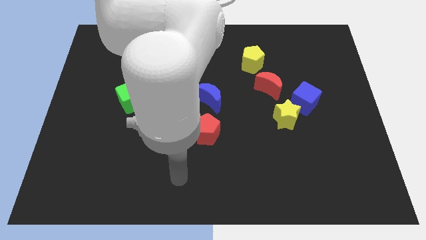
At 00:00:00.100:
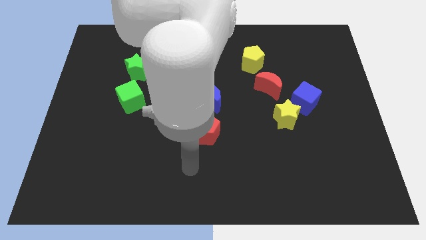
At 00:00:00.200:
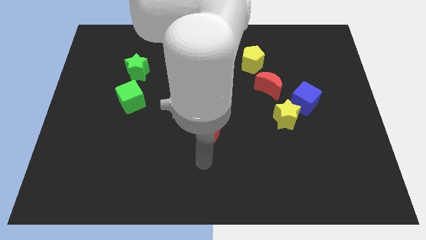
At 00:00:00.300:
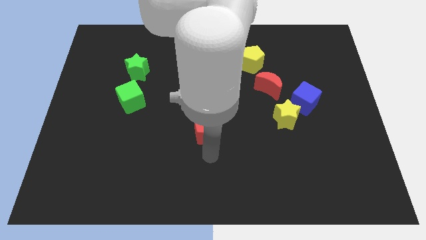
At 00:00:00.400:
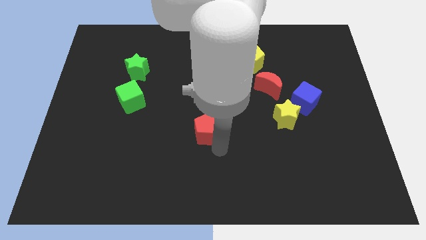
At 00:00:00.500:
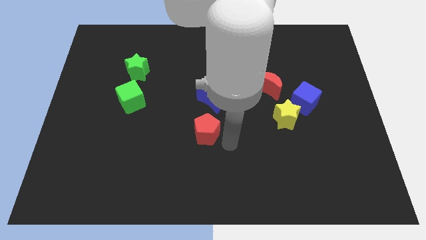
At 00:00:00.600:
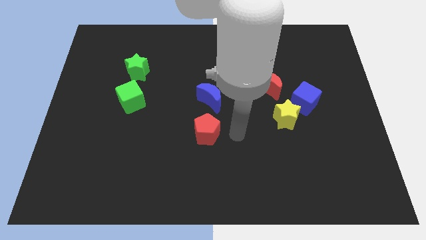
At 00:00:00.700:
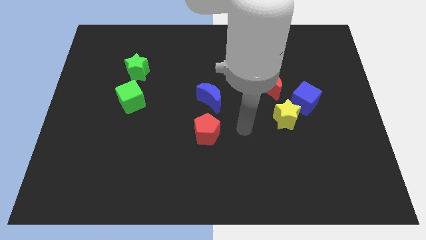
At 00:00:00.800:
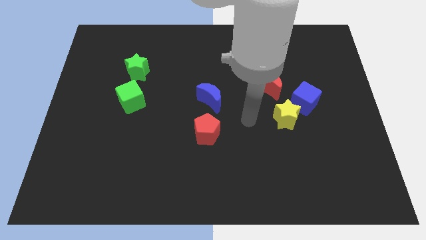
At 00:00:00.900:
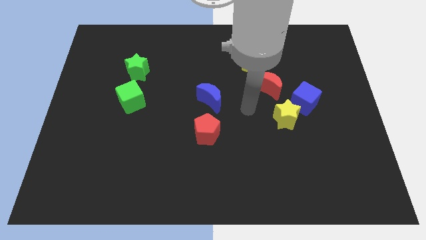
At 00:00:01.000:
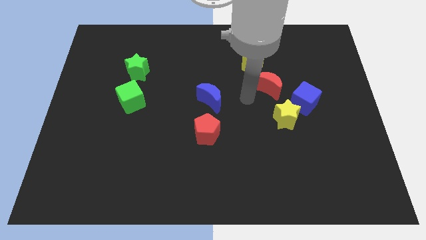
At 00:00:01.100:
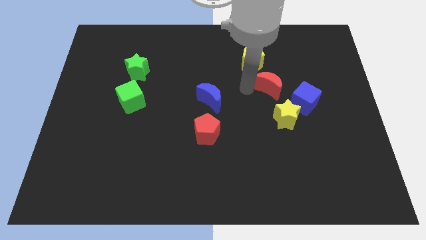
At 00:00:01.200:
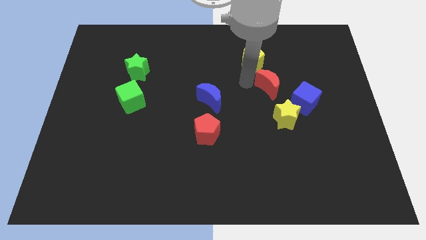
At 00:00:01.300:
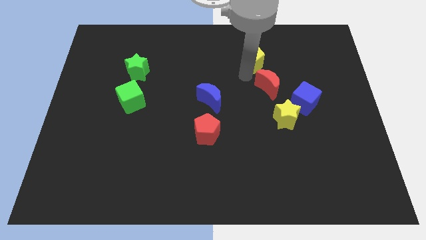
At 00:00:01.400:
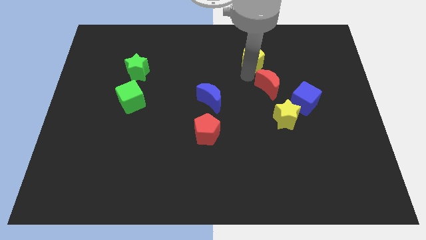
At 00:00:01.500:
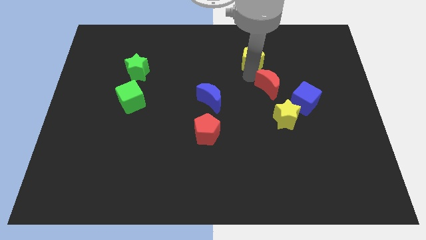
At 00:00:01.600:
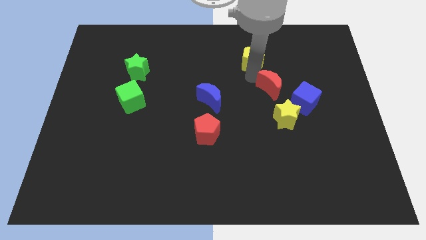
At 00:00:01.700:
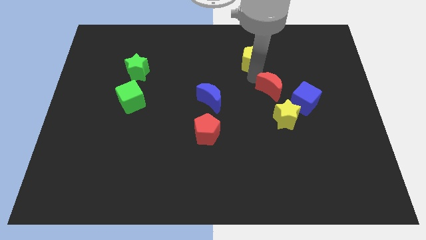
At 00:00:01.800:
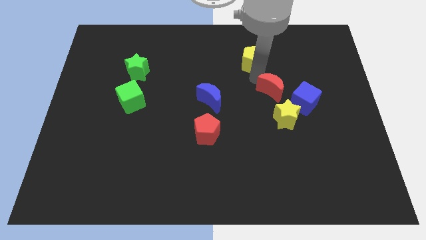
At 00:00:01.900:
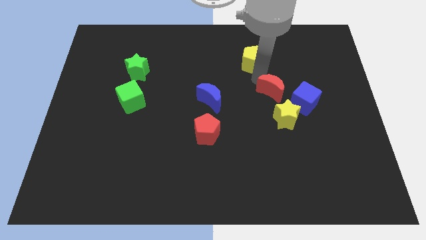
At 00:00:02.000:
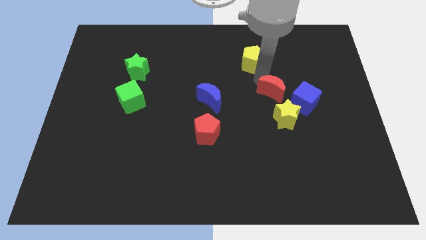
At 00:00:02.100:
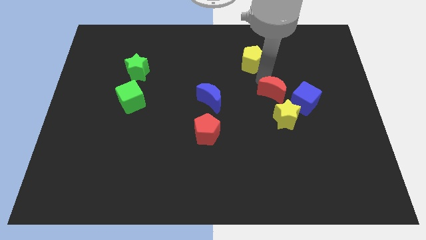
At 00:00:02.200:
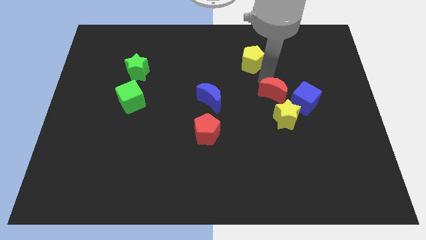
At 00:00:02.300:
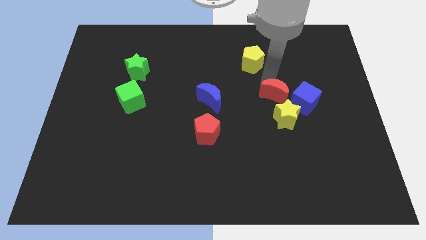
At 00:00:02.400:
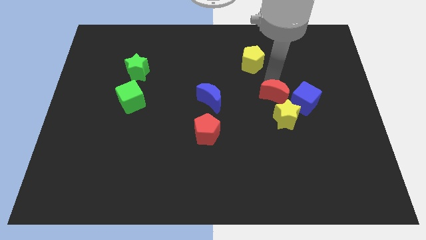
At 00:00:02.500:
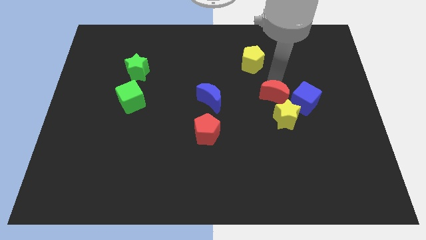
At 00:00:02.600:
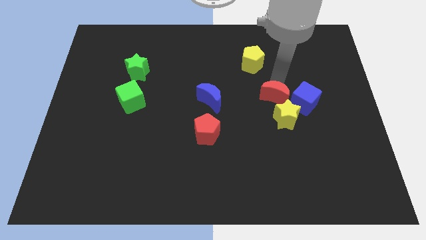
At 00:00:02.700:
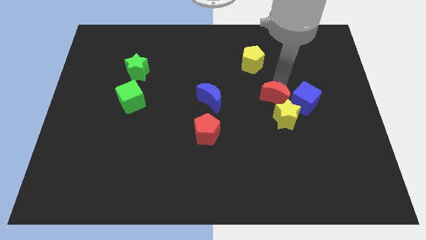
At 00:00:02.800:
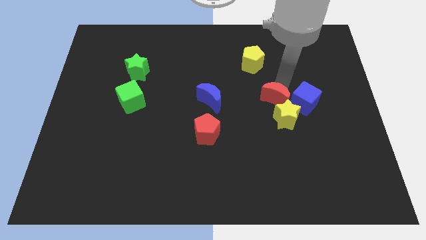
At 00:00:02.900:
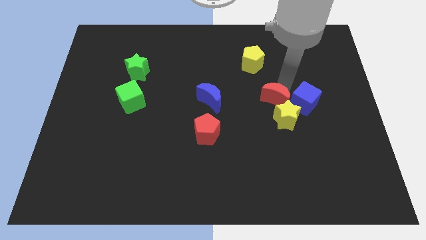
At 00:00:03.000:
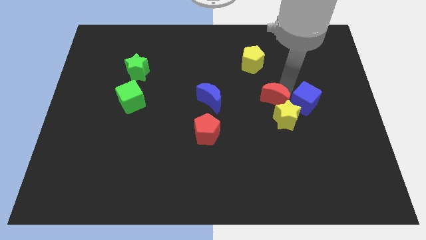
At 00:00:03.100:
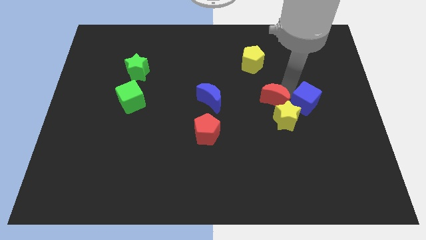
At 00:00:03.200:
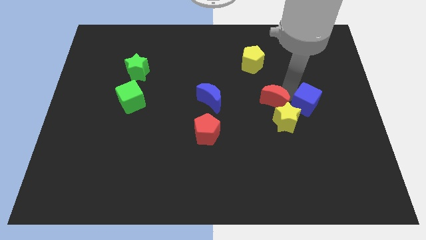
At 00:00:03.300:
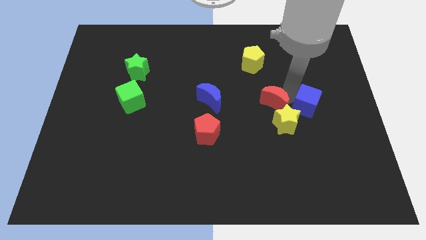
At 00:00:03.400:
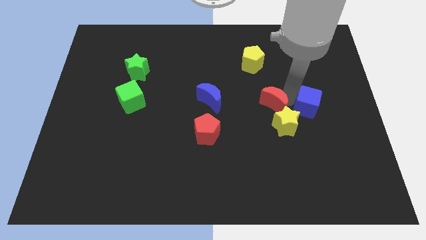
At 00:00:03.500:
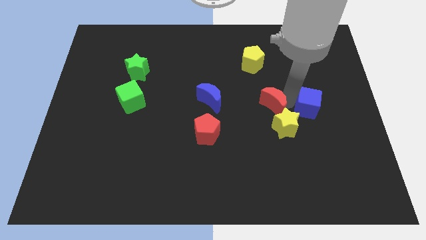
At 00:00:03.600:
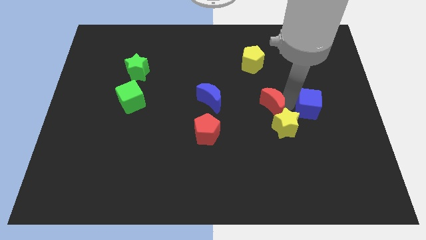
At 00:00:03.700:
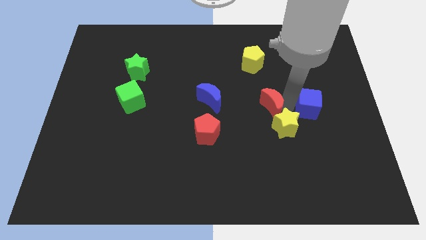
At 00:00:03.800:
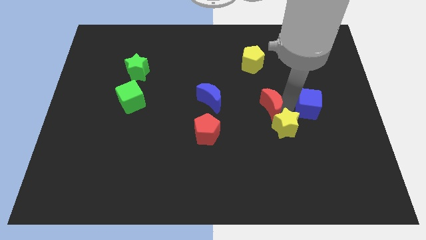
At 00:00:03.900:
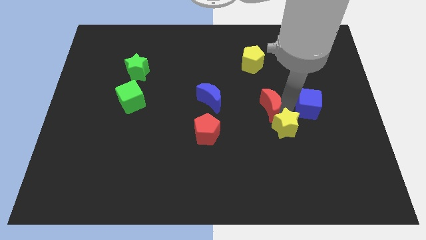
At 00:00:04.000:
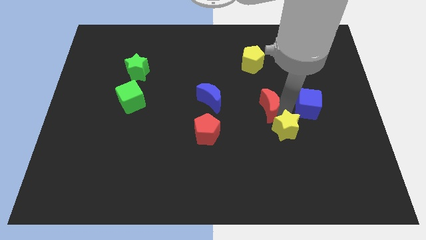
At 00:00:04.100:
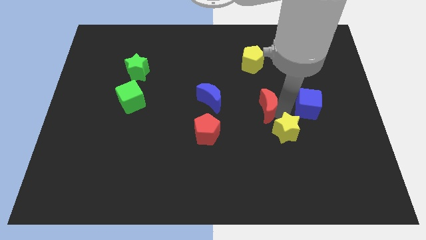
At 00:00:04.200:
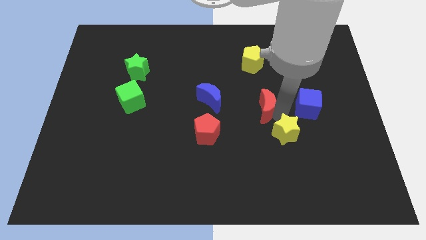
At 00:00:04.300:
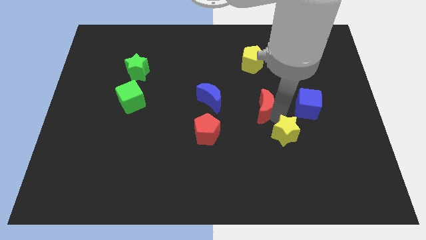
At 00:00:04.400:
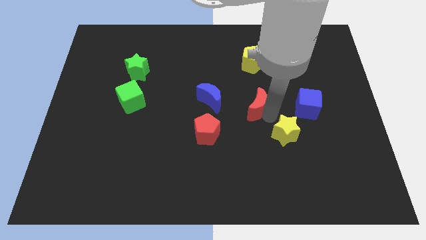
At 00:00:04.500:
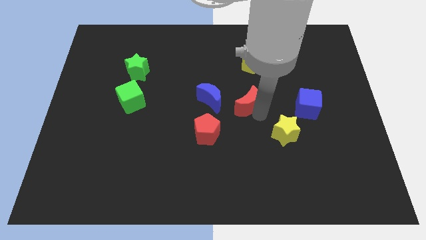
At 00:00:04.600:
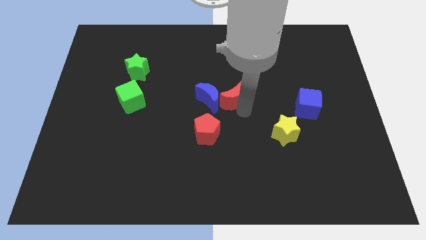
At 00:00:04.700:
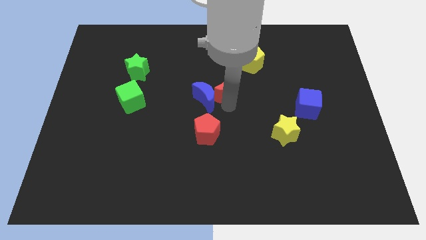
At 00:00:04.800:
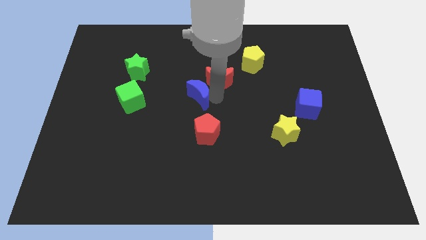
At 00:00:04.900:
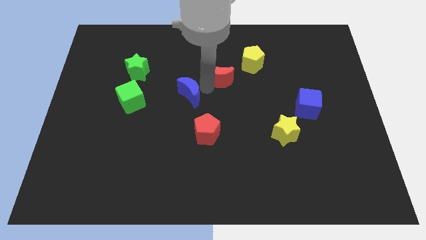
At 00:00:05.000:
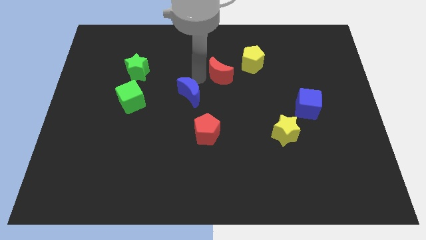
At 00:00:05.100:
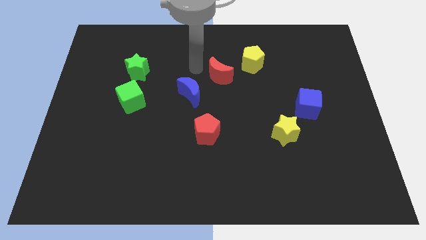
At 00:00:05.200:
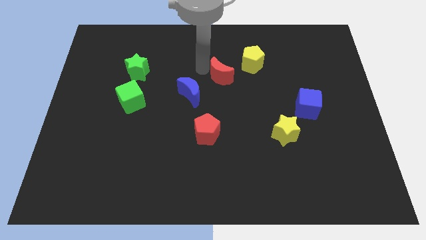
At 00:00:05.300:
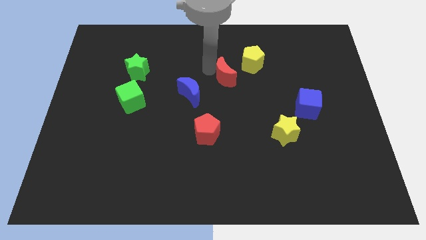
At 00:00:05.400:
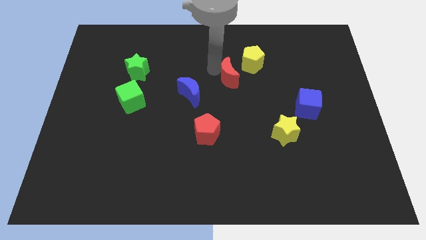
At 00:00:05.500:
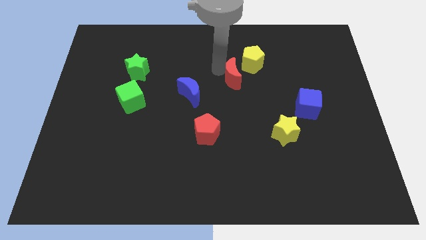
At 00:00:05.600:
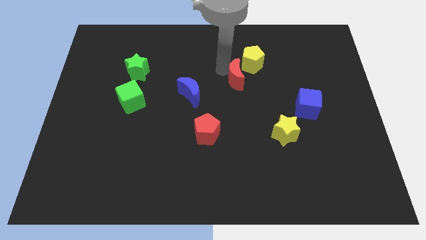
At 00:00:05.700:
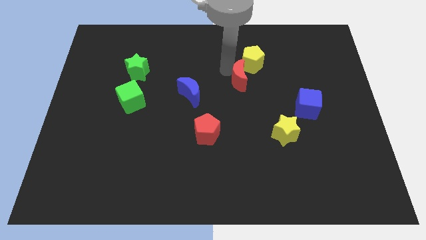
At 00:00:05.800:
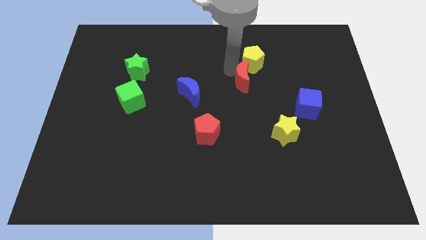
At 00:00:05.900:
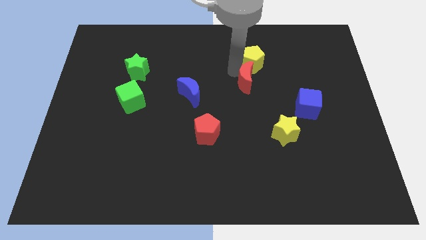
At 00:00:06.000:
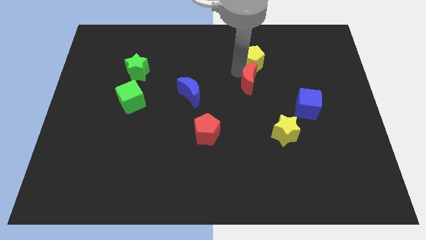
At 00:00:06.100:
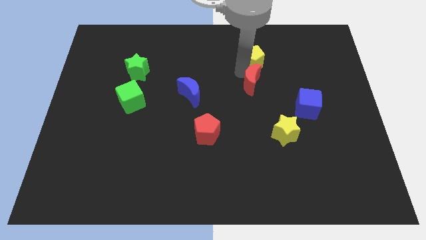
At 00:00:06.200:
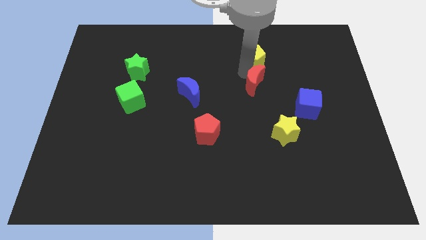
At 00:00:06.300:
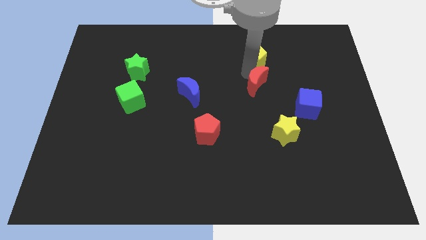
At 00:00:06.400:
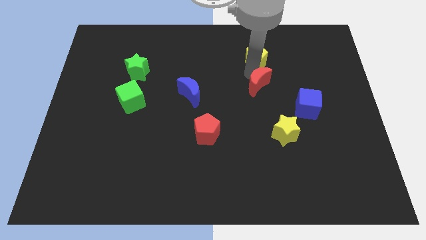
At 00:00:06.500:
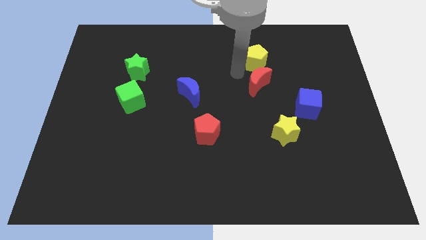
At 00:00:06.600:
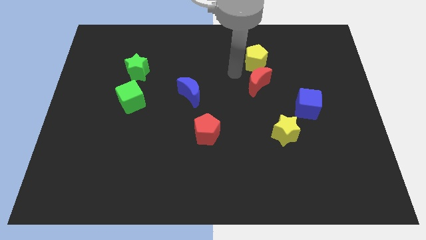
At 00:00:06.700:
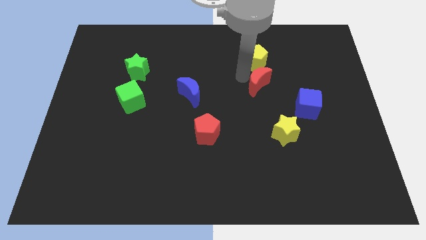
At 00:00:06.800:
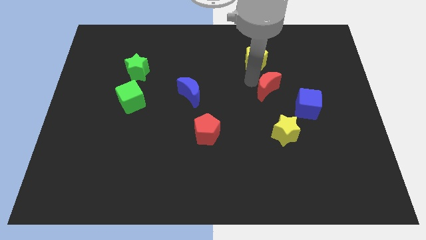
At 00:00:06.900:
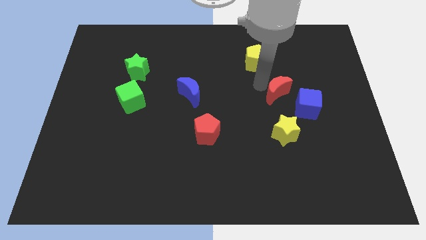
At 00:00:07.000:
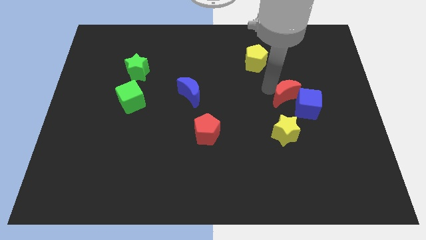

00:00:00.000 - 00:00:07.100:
slide the red moon towards the blue cube

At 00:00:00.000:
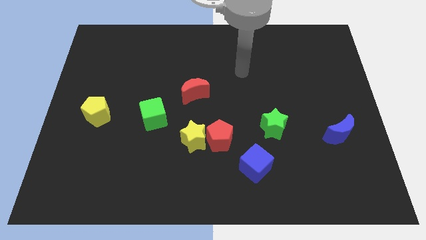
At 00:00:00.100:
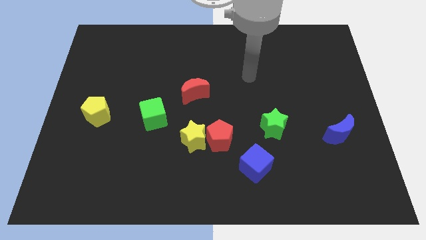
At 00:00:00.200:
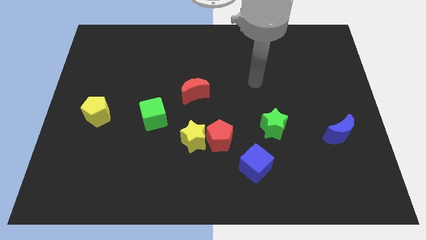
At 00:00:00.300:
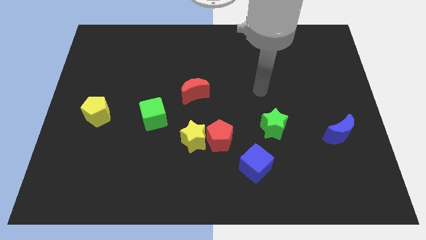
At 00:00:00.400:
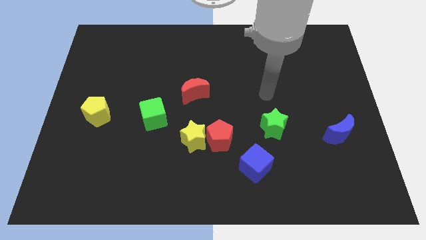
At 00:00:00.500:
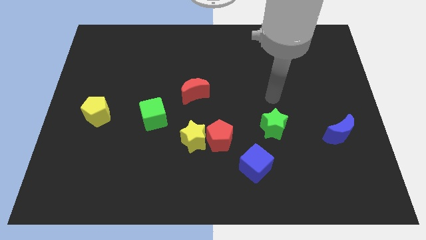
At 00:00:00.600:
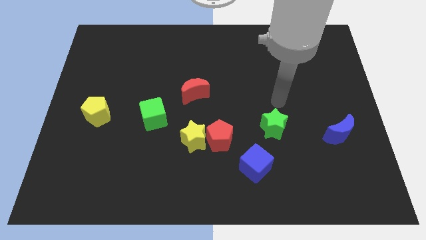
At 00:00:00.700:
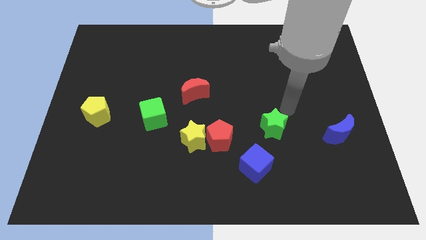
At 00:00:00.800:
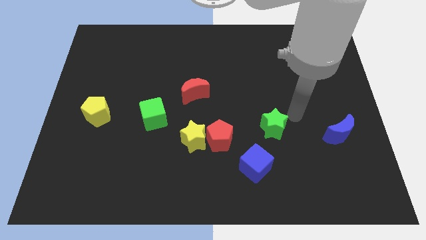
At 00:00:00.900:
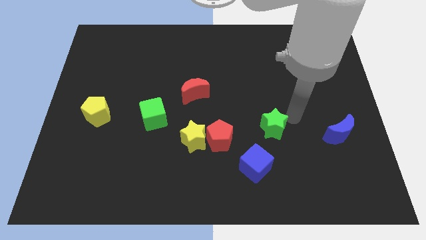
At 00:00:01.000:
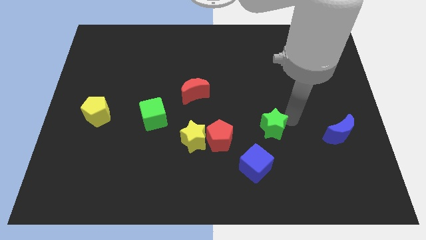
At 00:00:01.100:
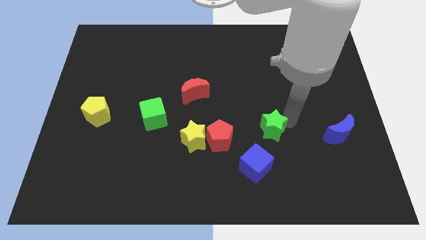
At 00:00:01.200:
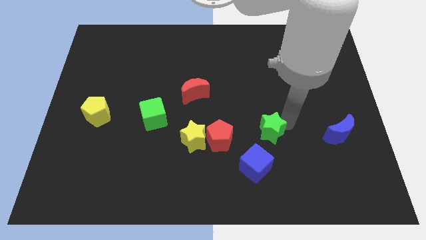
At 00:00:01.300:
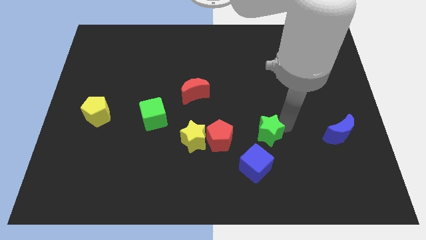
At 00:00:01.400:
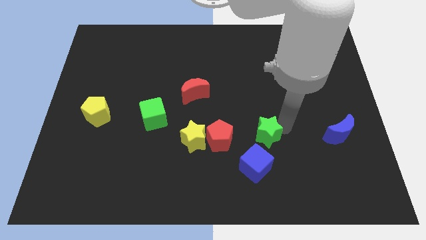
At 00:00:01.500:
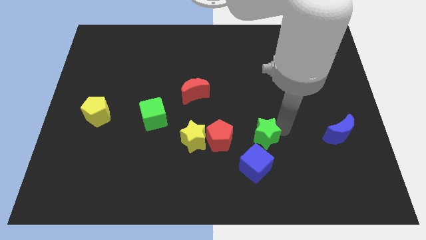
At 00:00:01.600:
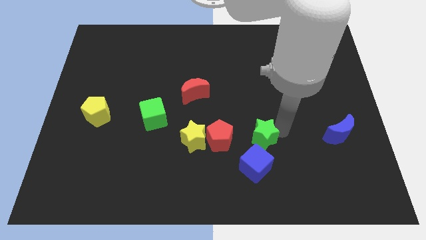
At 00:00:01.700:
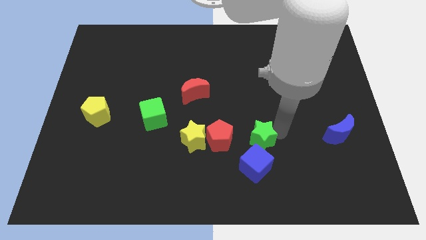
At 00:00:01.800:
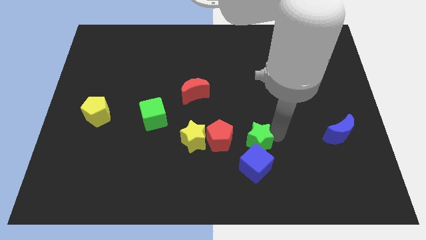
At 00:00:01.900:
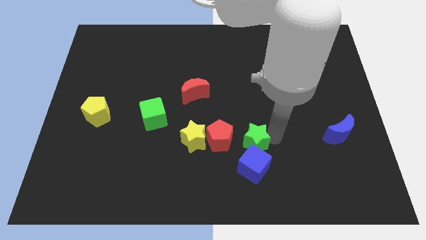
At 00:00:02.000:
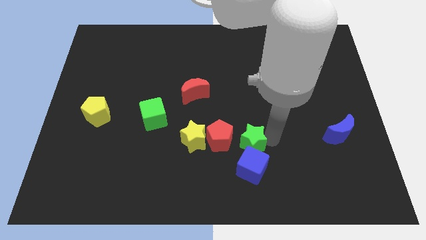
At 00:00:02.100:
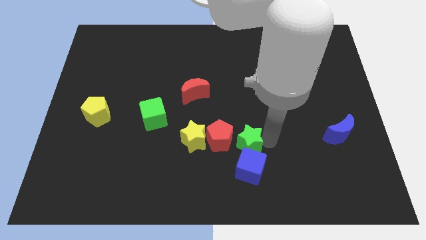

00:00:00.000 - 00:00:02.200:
push the green star to the red pentagon
